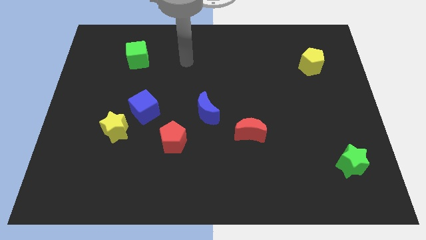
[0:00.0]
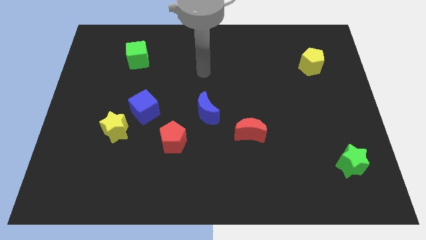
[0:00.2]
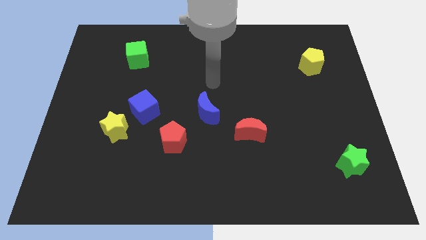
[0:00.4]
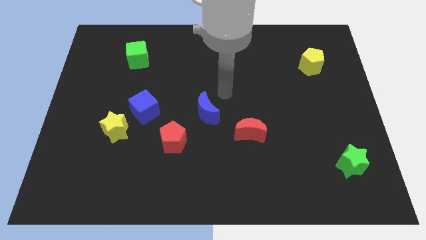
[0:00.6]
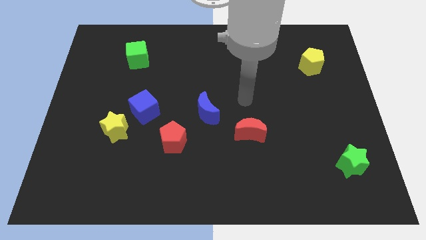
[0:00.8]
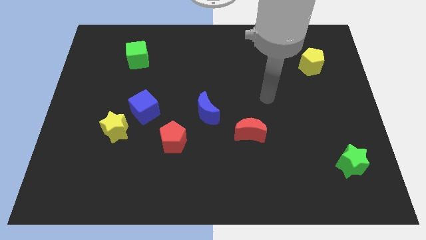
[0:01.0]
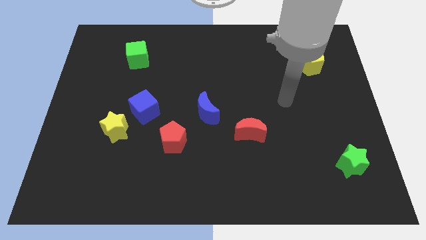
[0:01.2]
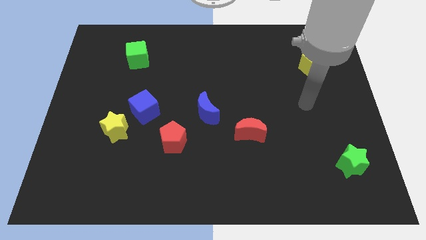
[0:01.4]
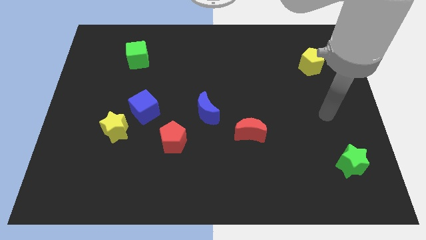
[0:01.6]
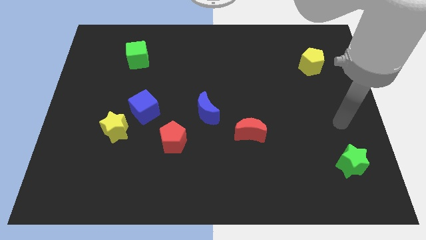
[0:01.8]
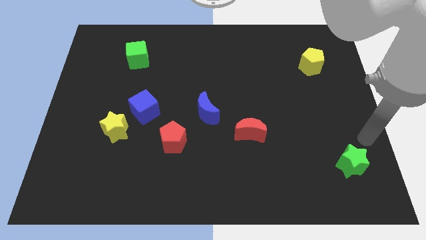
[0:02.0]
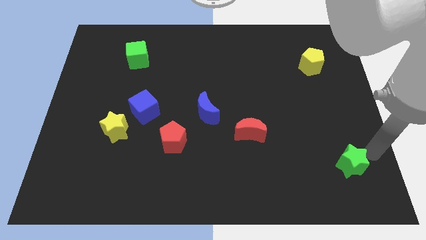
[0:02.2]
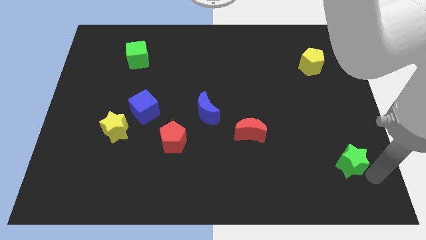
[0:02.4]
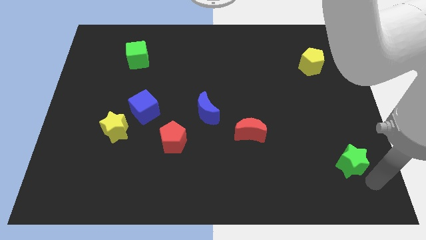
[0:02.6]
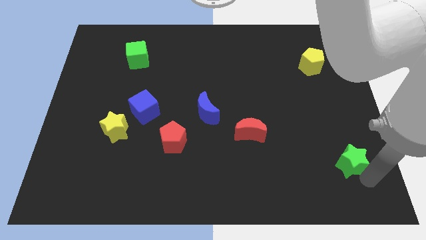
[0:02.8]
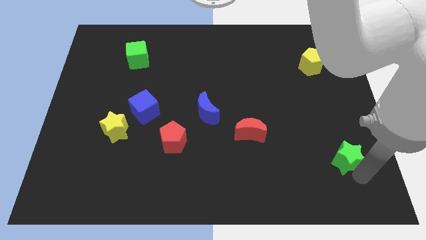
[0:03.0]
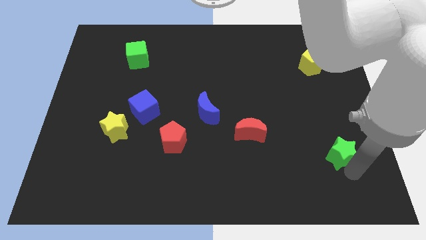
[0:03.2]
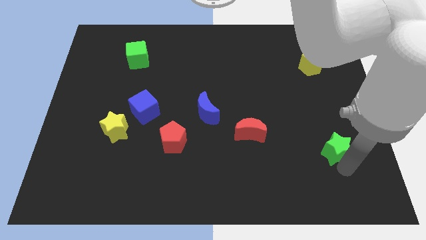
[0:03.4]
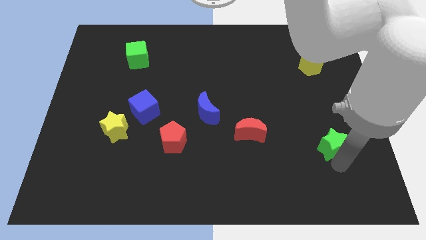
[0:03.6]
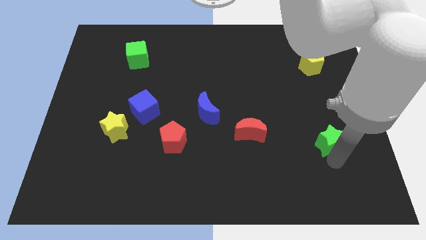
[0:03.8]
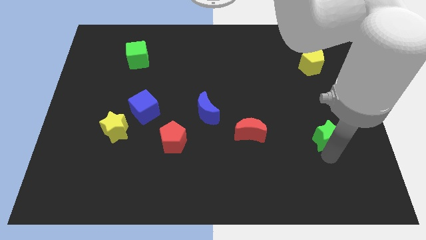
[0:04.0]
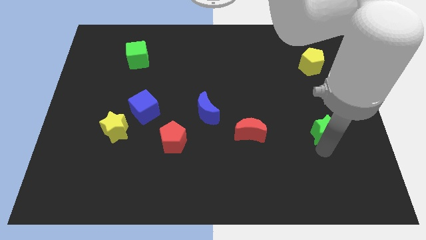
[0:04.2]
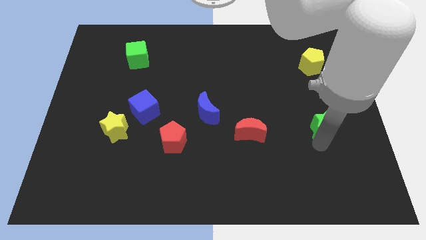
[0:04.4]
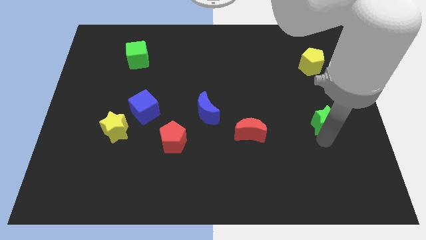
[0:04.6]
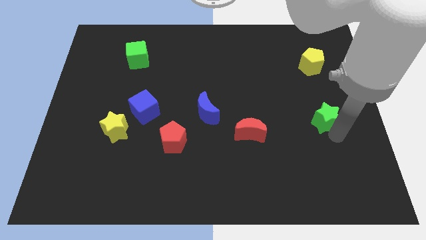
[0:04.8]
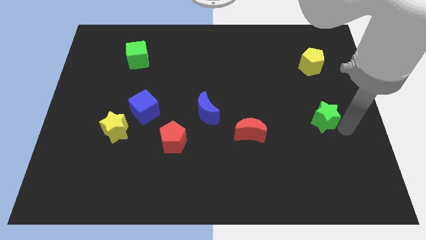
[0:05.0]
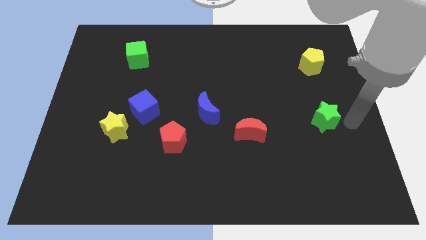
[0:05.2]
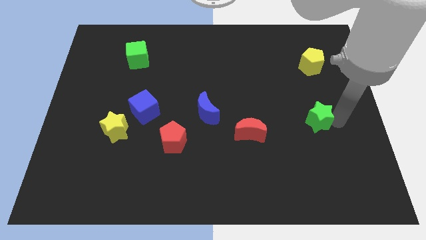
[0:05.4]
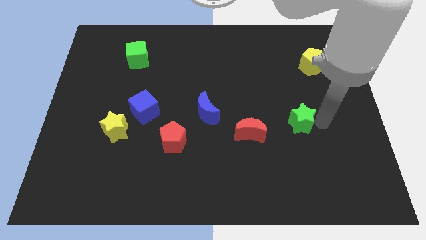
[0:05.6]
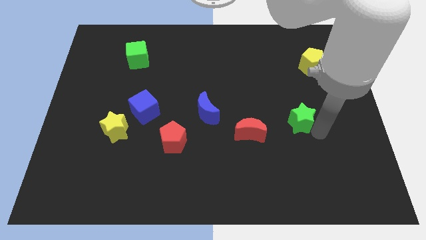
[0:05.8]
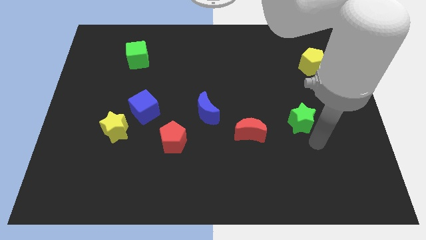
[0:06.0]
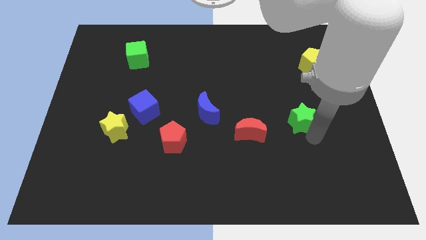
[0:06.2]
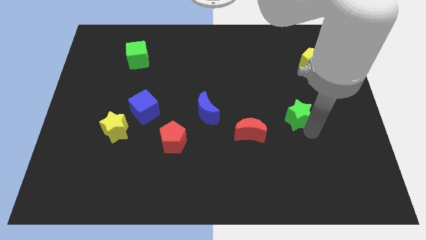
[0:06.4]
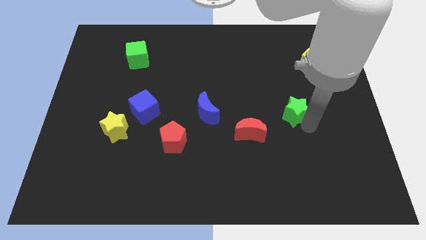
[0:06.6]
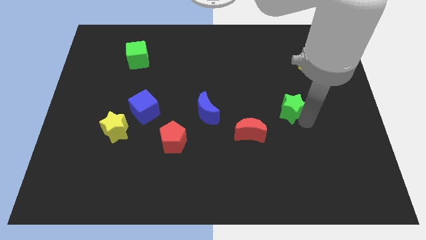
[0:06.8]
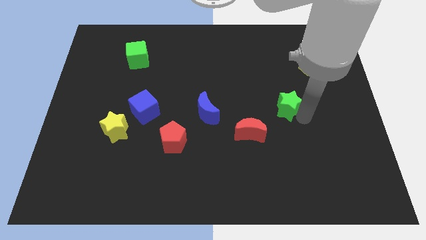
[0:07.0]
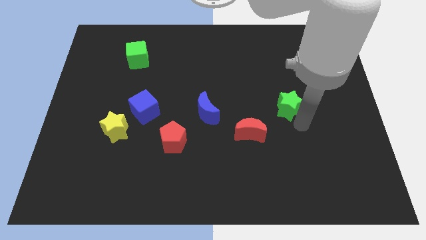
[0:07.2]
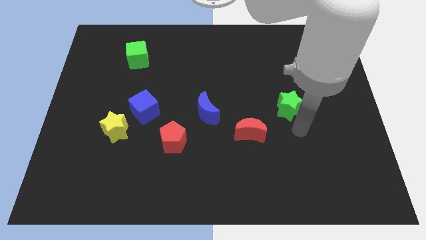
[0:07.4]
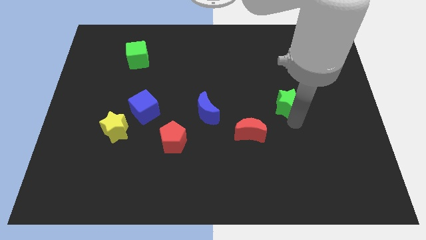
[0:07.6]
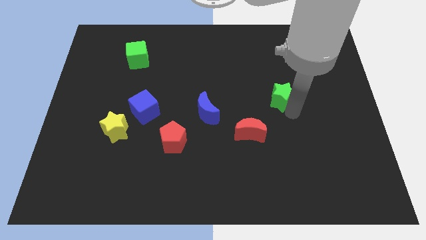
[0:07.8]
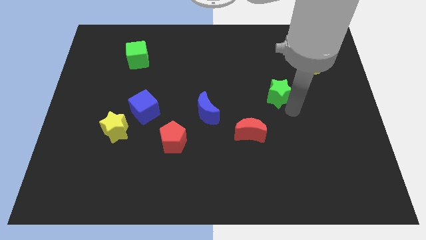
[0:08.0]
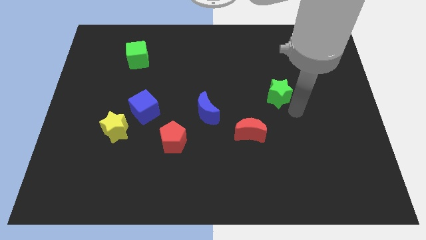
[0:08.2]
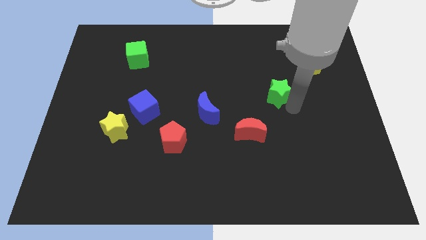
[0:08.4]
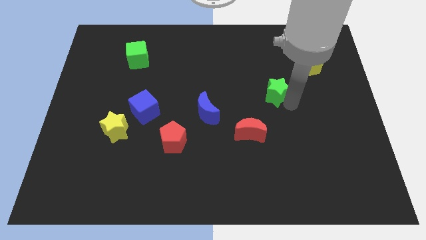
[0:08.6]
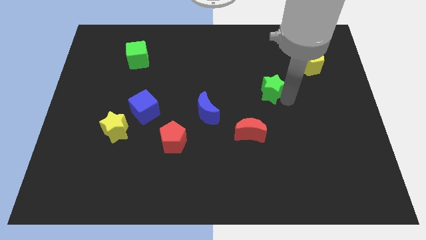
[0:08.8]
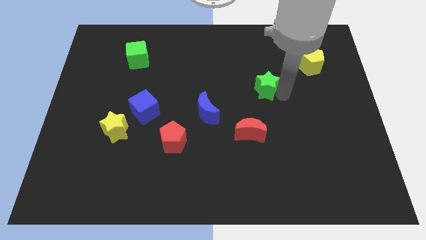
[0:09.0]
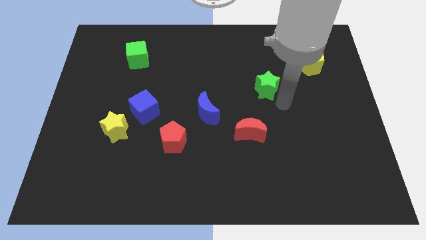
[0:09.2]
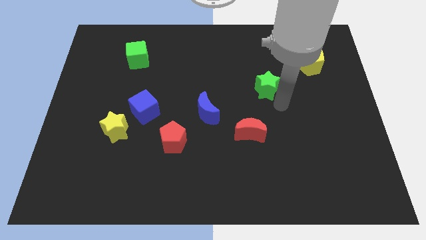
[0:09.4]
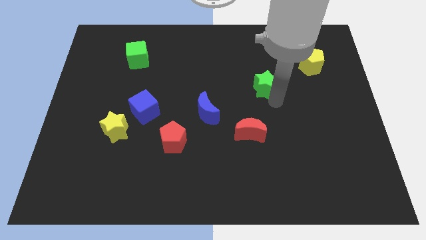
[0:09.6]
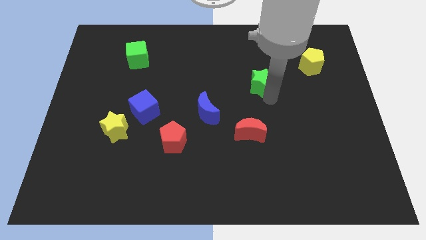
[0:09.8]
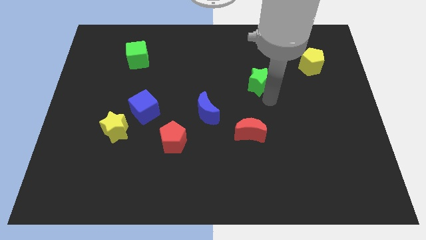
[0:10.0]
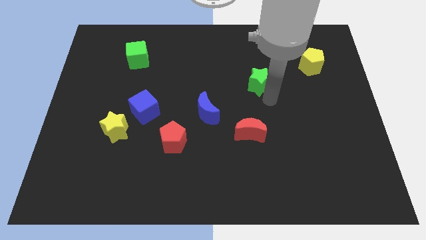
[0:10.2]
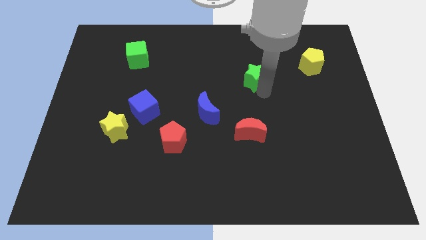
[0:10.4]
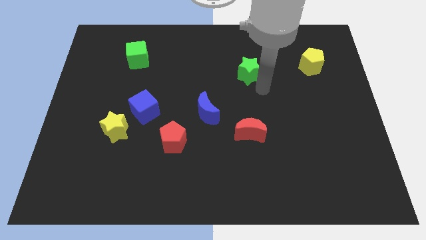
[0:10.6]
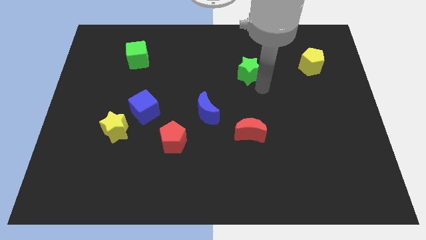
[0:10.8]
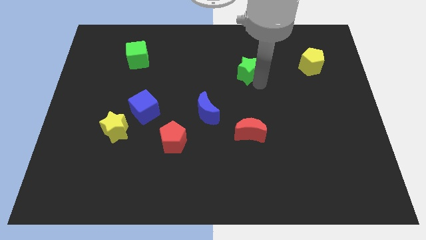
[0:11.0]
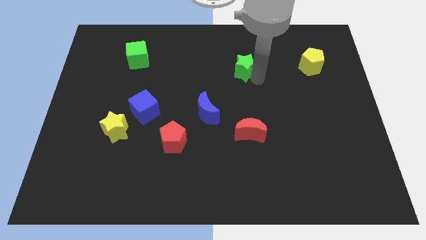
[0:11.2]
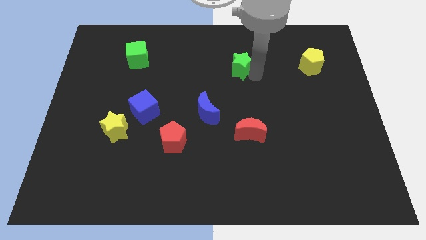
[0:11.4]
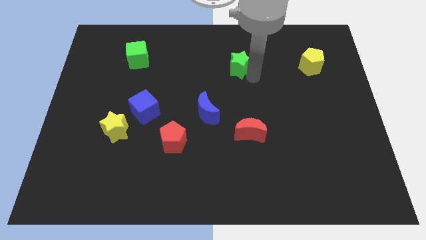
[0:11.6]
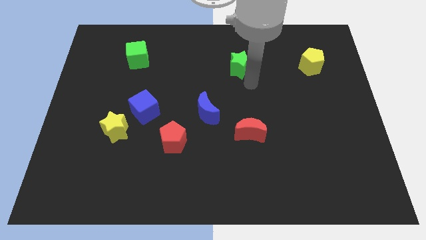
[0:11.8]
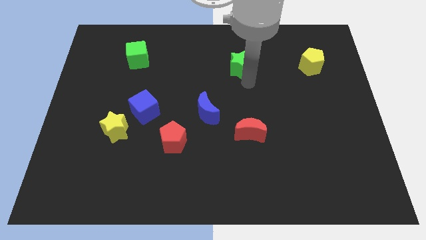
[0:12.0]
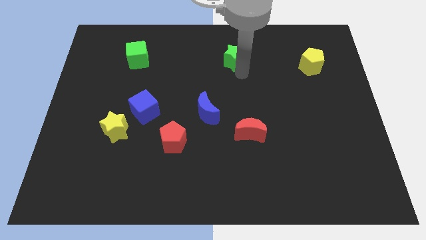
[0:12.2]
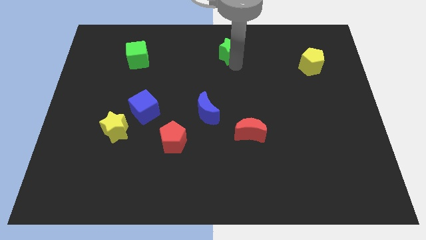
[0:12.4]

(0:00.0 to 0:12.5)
slide the green star to the top side
